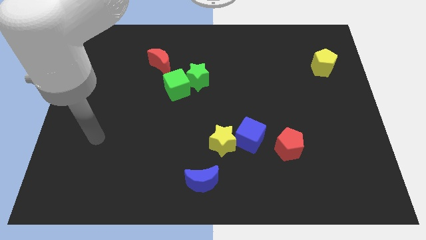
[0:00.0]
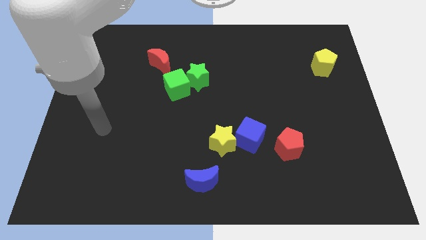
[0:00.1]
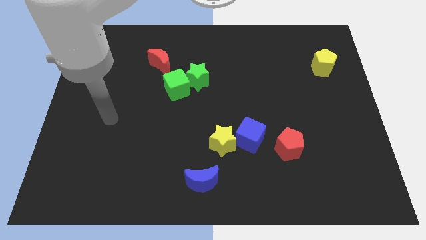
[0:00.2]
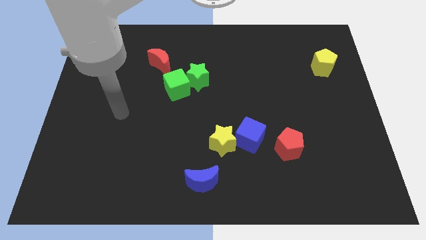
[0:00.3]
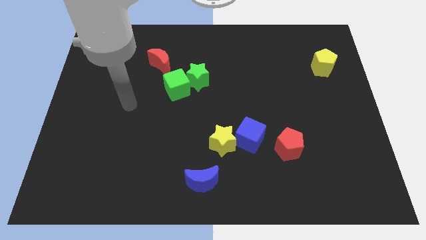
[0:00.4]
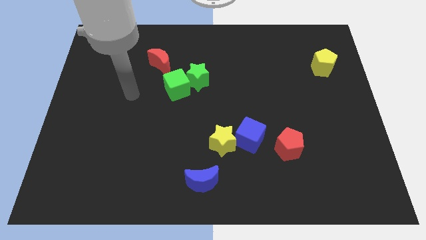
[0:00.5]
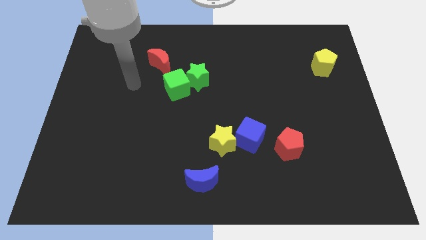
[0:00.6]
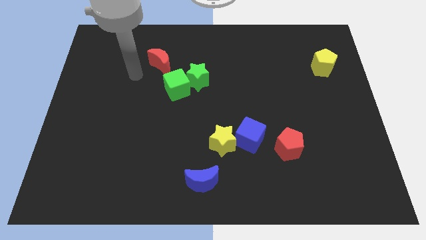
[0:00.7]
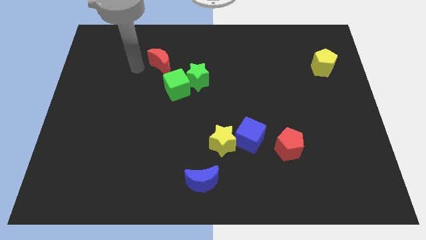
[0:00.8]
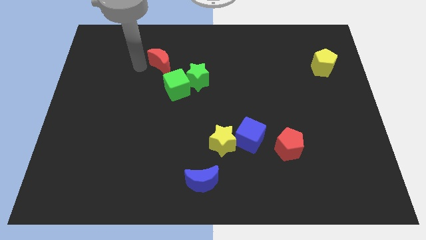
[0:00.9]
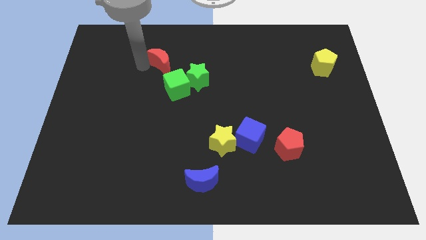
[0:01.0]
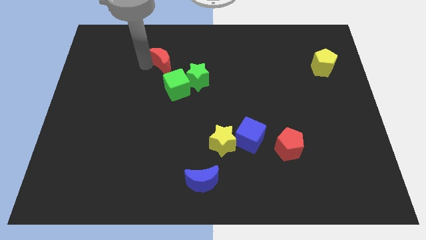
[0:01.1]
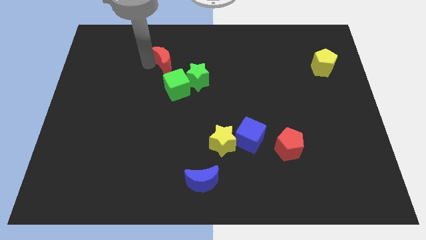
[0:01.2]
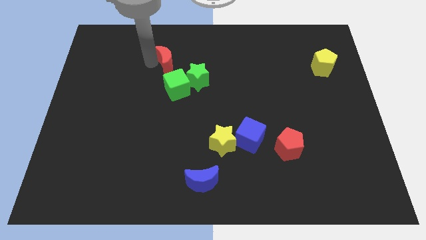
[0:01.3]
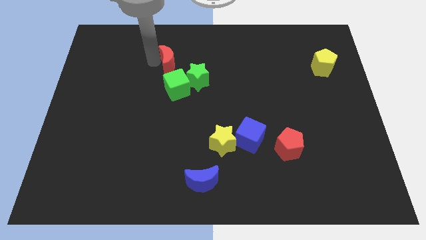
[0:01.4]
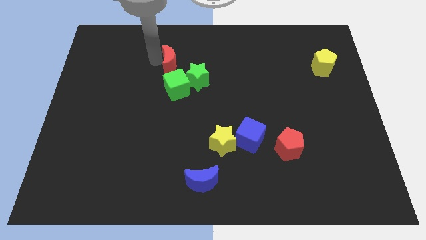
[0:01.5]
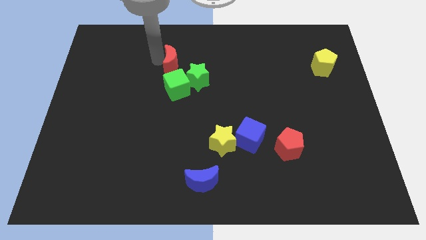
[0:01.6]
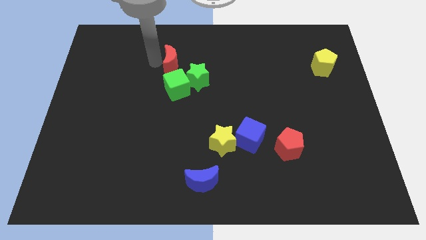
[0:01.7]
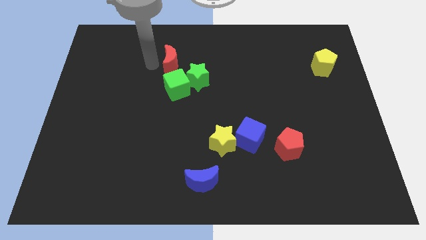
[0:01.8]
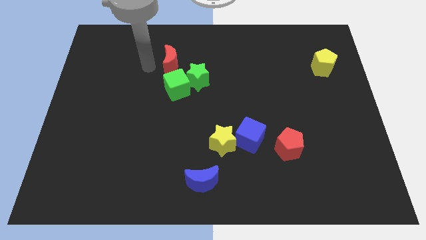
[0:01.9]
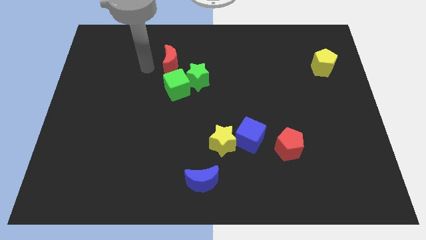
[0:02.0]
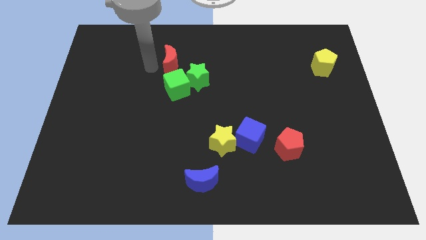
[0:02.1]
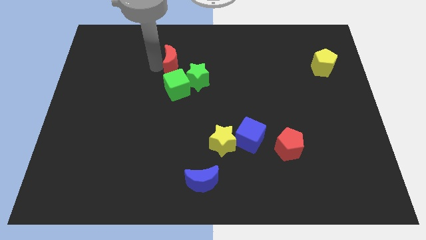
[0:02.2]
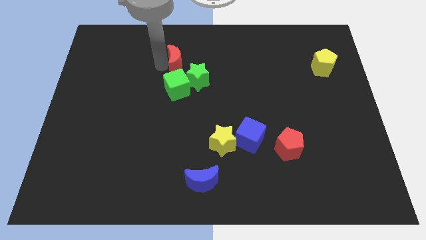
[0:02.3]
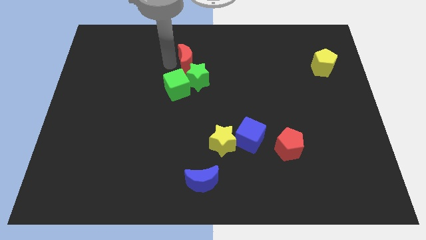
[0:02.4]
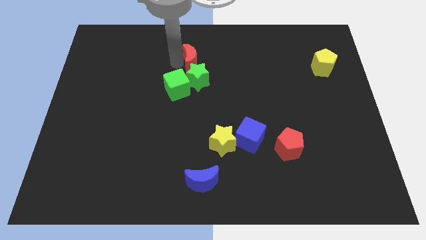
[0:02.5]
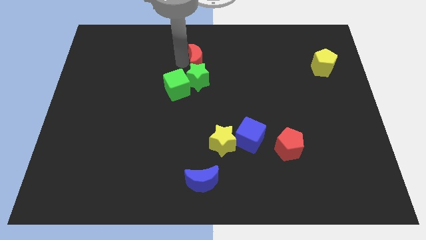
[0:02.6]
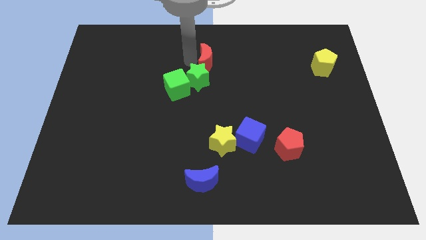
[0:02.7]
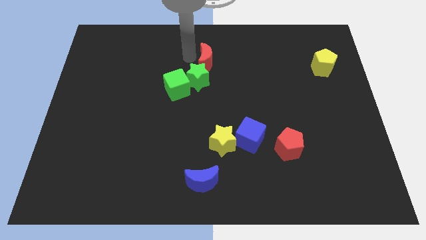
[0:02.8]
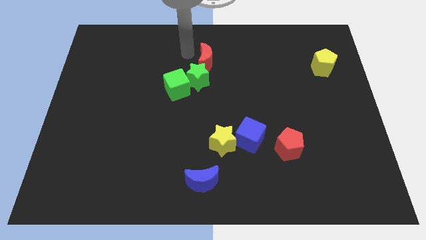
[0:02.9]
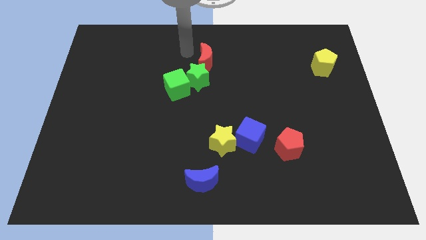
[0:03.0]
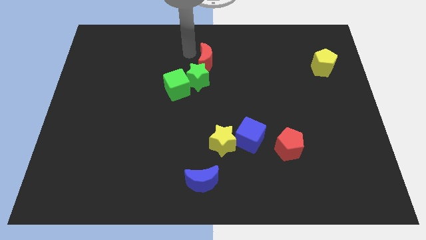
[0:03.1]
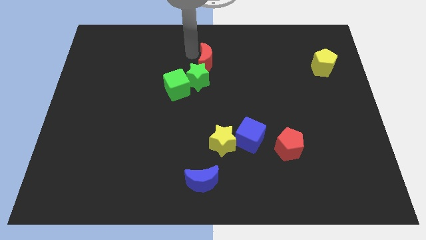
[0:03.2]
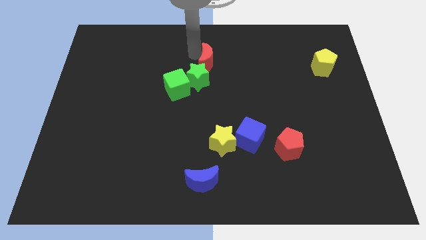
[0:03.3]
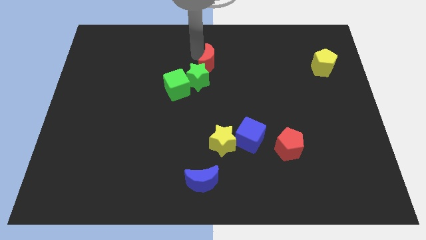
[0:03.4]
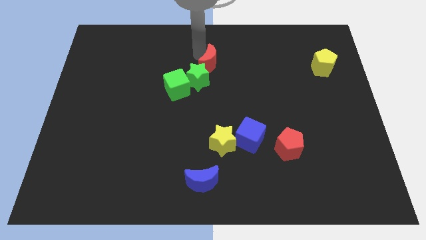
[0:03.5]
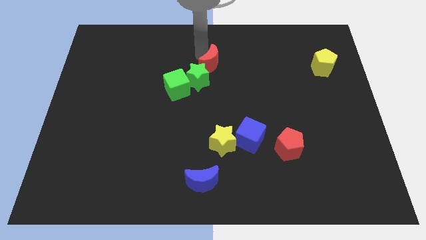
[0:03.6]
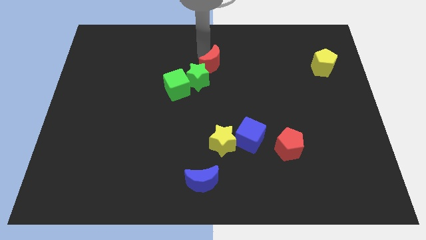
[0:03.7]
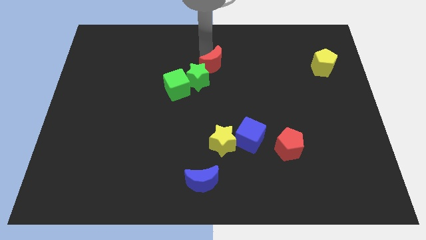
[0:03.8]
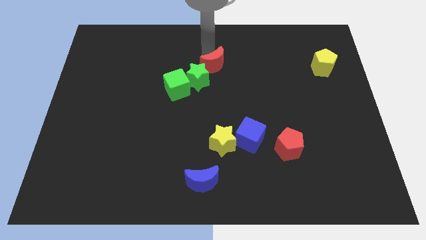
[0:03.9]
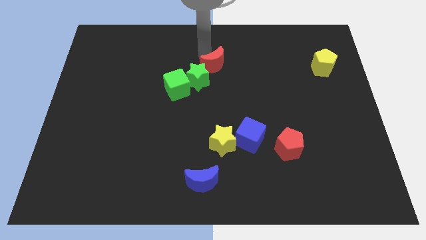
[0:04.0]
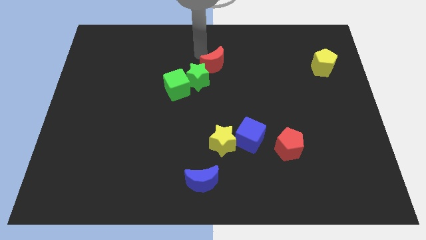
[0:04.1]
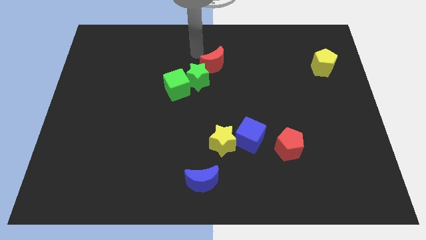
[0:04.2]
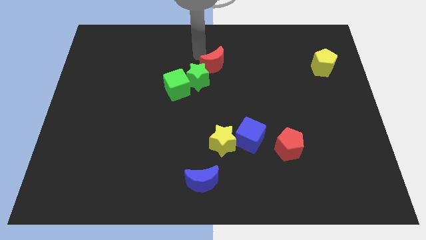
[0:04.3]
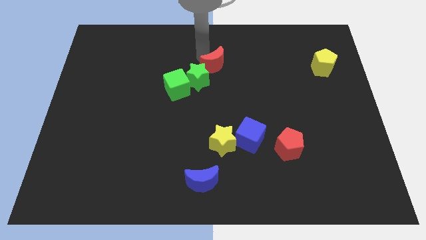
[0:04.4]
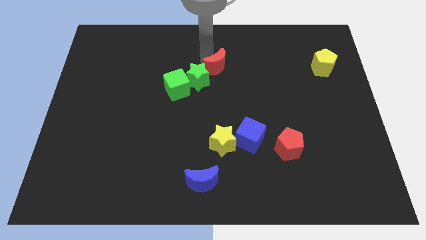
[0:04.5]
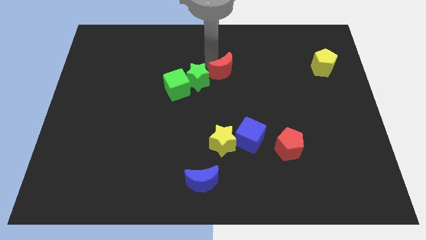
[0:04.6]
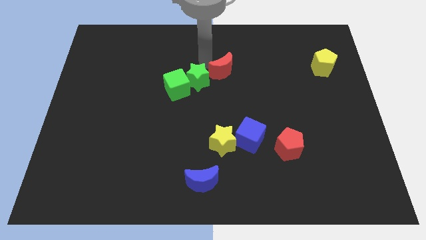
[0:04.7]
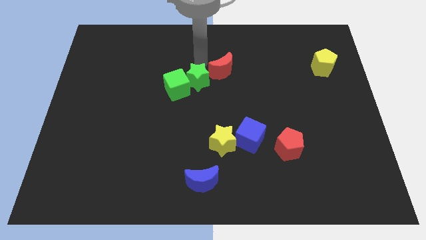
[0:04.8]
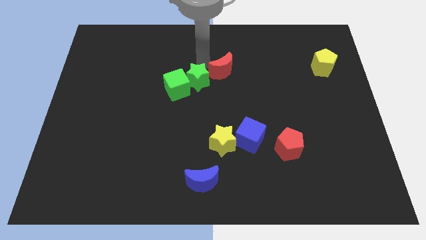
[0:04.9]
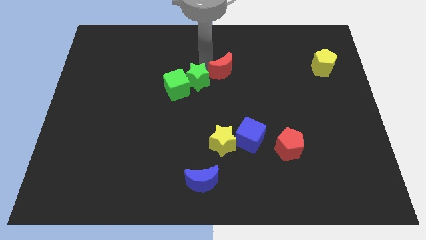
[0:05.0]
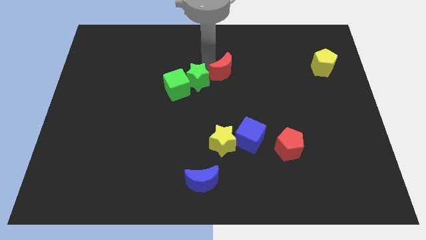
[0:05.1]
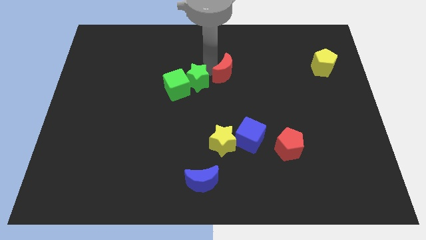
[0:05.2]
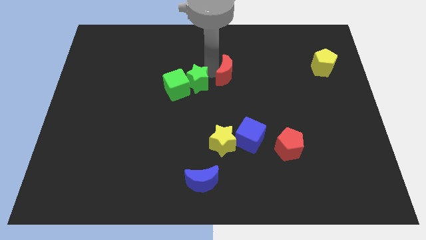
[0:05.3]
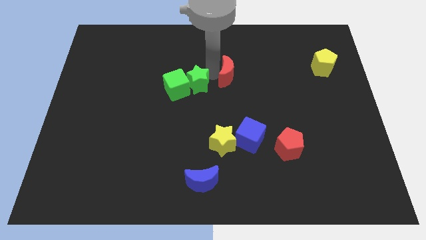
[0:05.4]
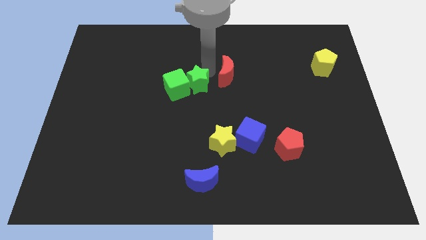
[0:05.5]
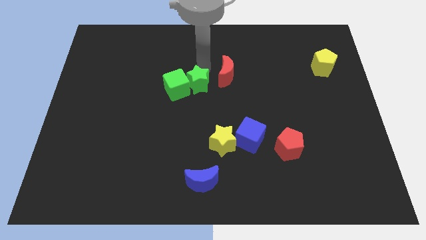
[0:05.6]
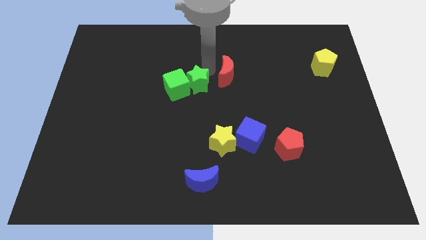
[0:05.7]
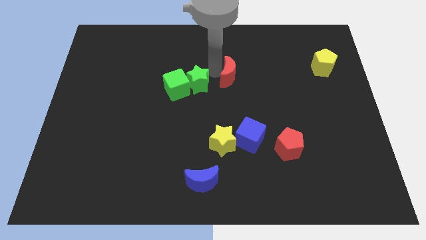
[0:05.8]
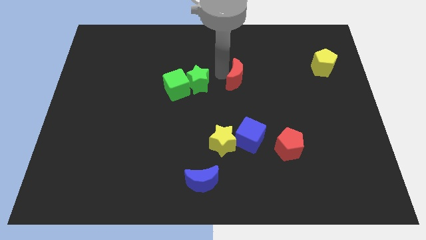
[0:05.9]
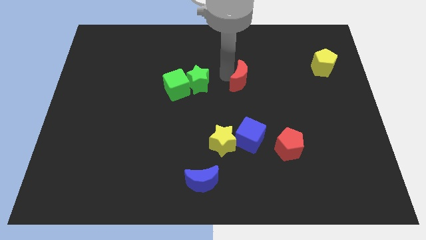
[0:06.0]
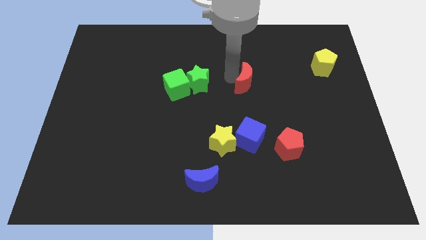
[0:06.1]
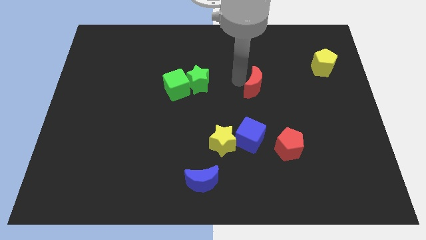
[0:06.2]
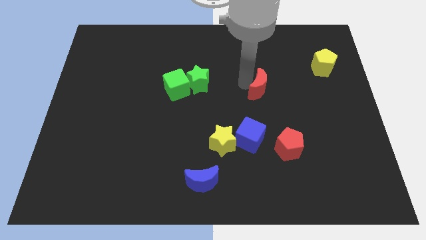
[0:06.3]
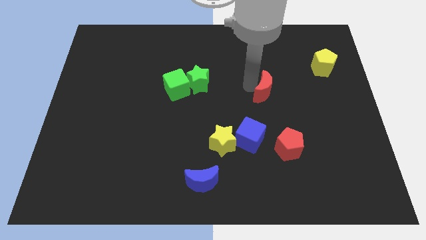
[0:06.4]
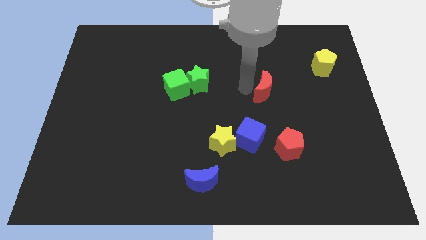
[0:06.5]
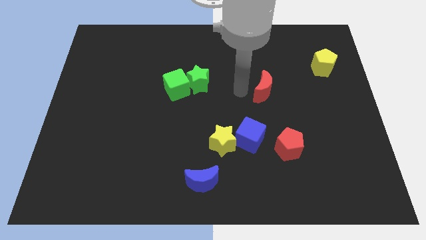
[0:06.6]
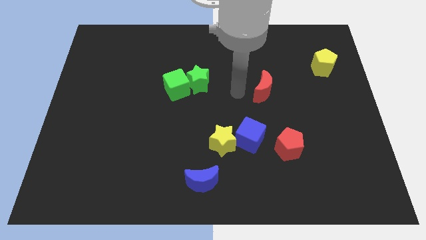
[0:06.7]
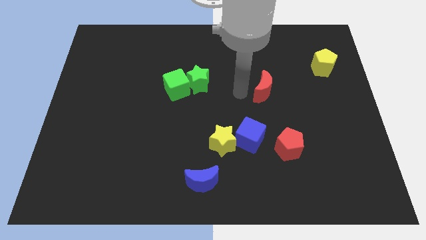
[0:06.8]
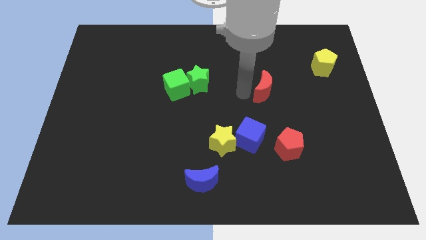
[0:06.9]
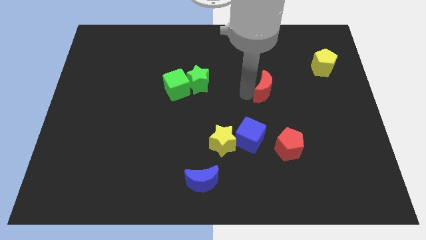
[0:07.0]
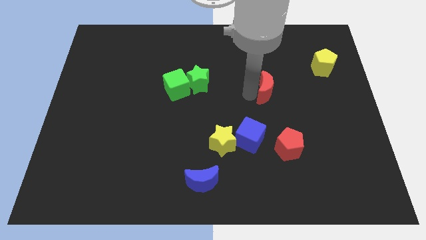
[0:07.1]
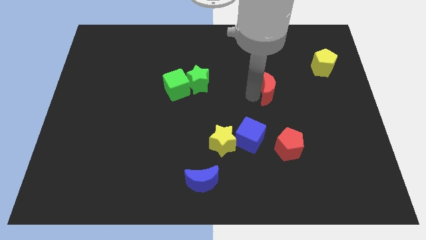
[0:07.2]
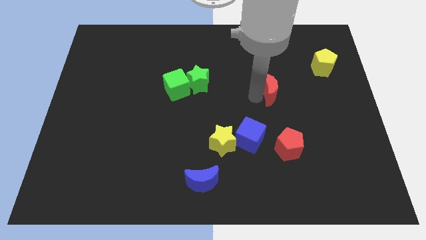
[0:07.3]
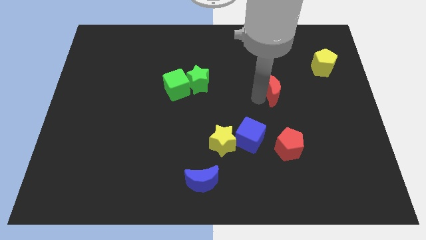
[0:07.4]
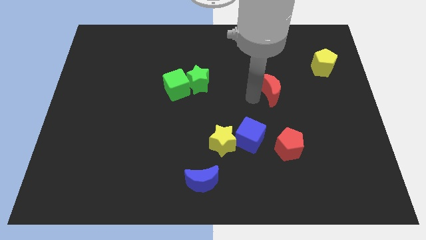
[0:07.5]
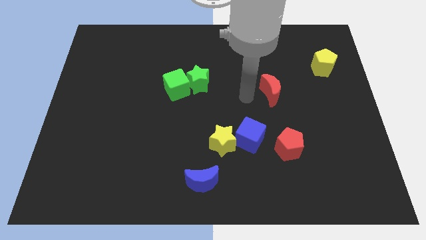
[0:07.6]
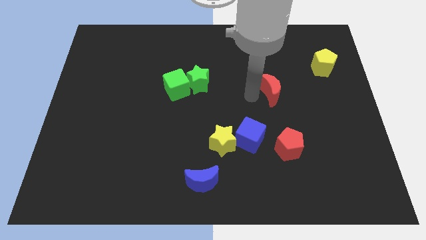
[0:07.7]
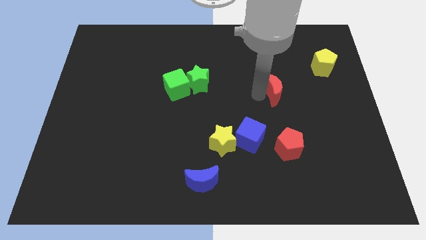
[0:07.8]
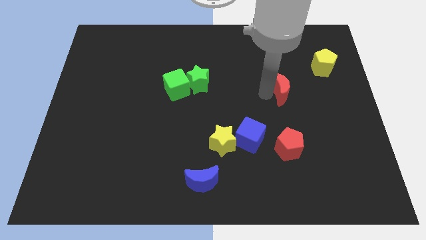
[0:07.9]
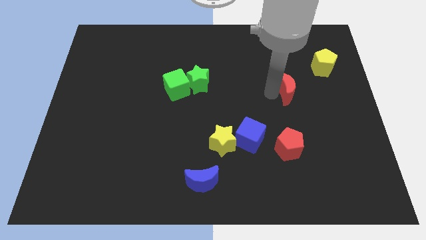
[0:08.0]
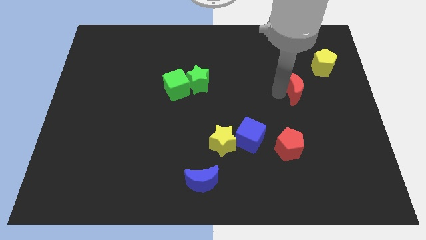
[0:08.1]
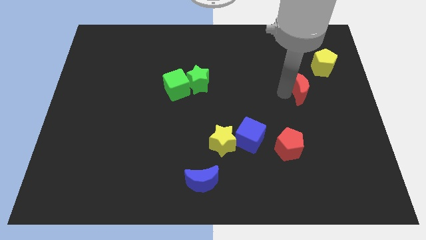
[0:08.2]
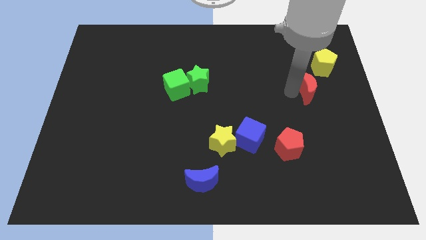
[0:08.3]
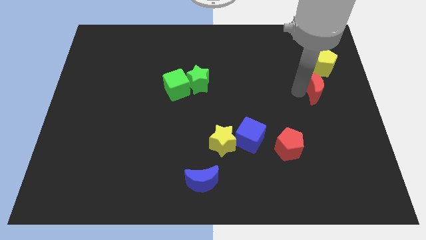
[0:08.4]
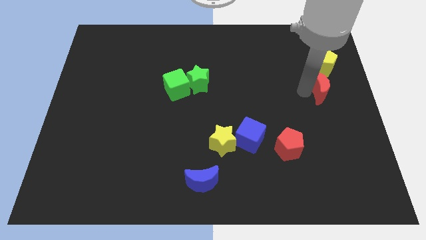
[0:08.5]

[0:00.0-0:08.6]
push the red moon to the right side of the board
